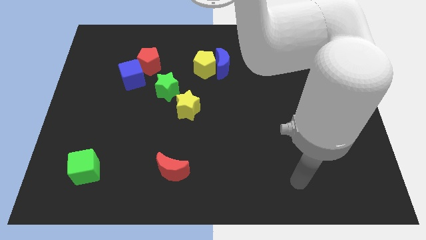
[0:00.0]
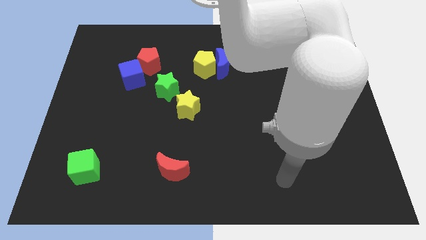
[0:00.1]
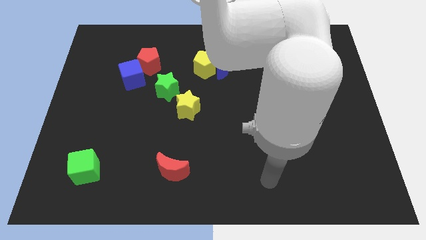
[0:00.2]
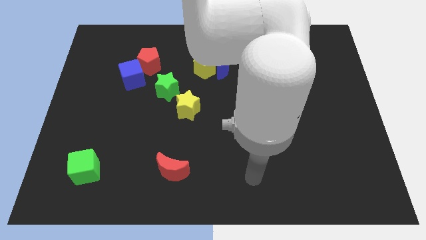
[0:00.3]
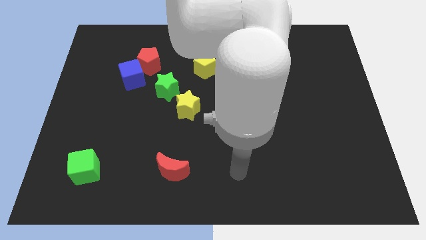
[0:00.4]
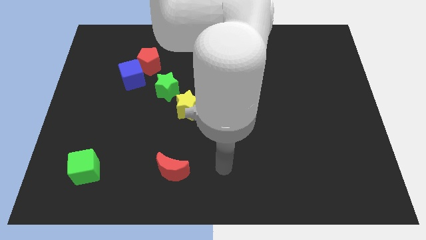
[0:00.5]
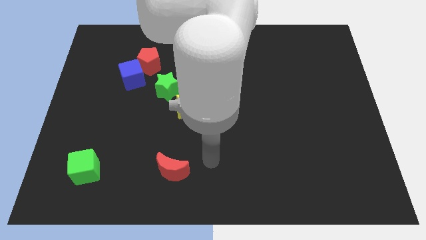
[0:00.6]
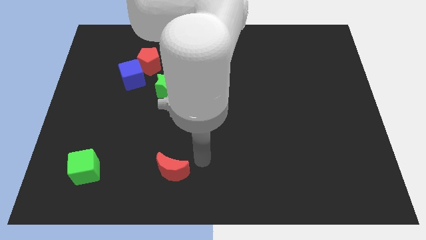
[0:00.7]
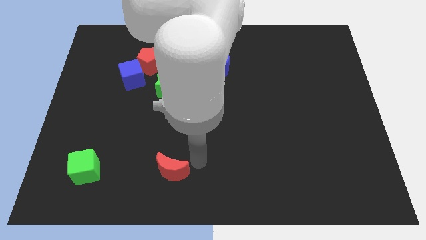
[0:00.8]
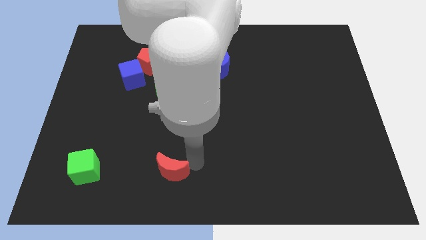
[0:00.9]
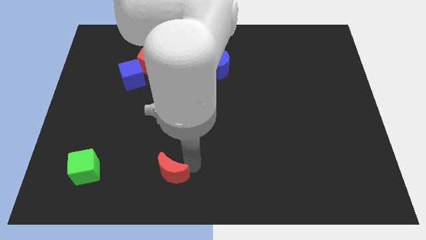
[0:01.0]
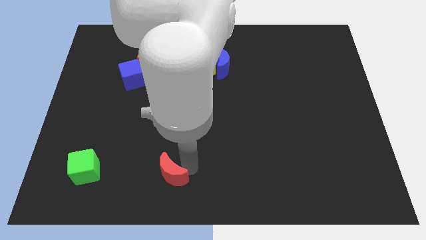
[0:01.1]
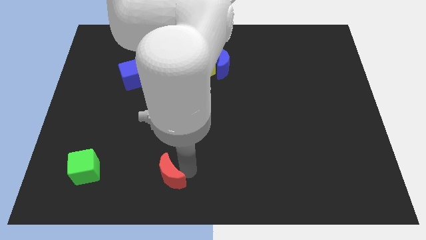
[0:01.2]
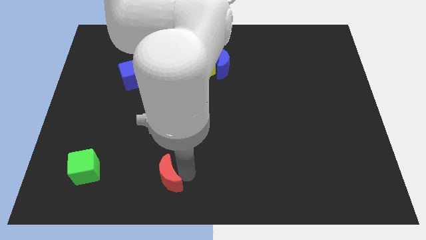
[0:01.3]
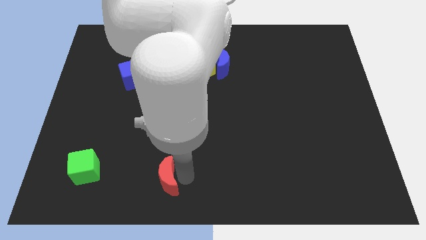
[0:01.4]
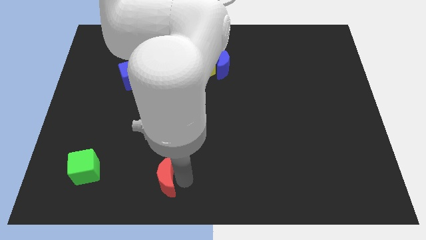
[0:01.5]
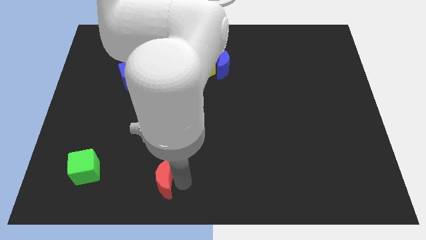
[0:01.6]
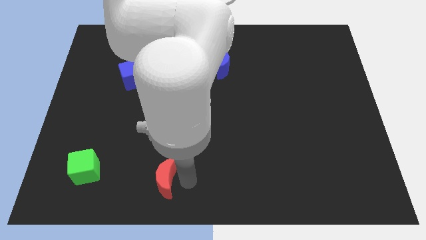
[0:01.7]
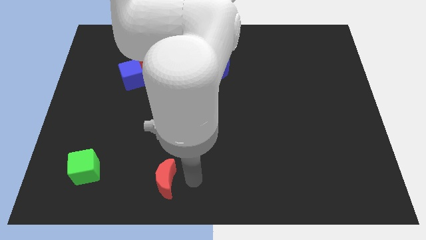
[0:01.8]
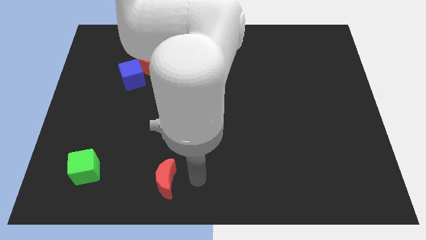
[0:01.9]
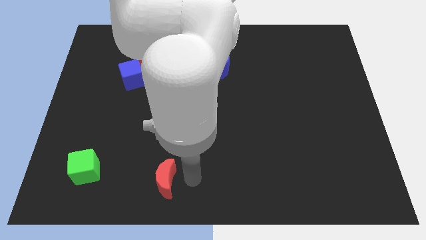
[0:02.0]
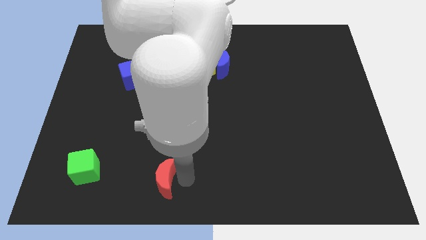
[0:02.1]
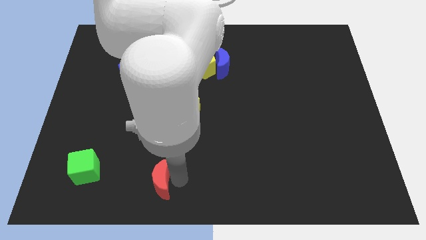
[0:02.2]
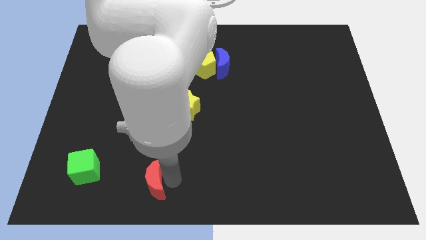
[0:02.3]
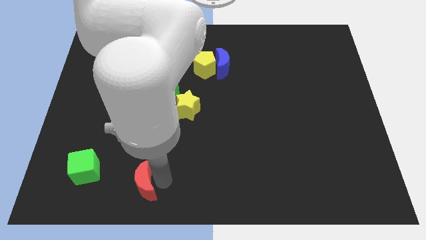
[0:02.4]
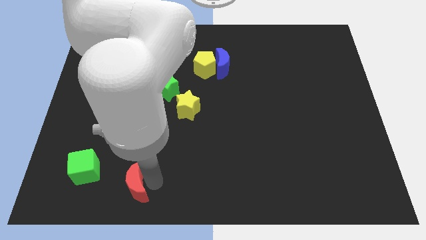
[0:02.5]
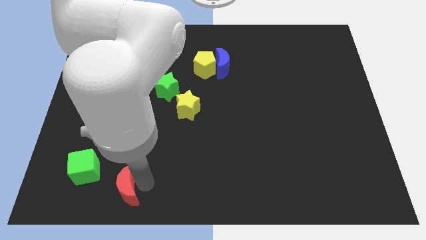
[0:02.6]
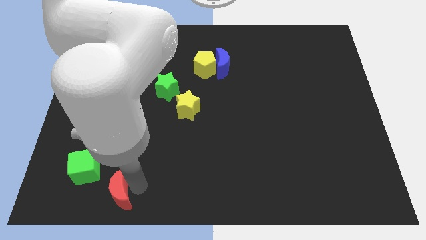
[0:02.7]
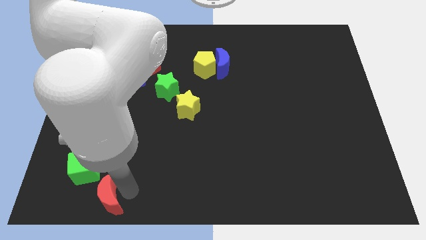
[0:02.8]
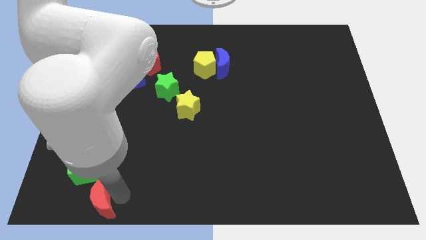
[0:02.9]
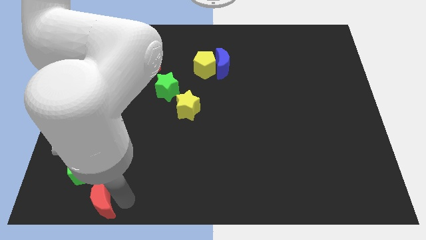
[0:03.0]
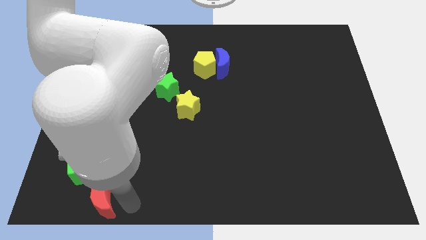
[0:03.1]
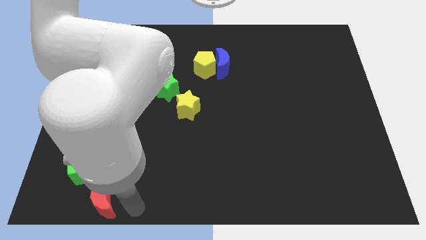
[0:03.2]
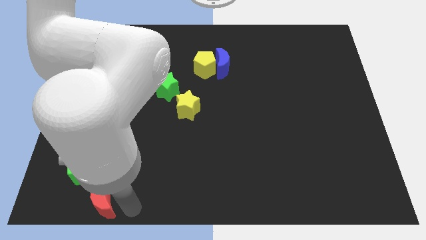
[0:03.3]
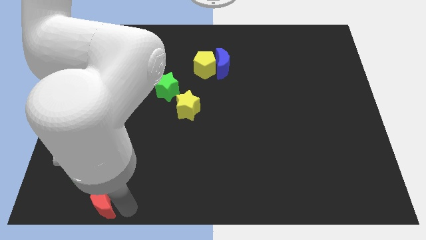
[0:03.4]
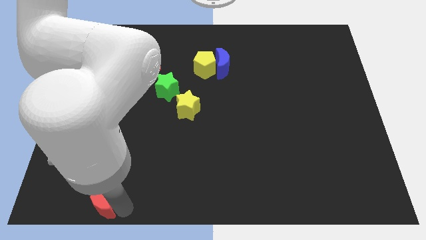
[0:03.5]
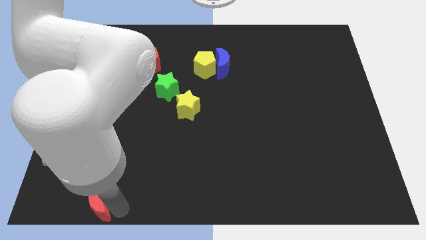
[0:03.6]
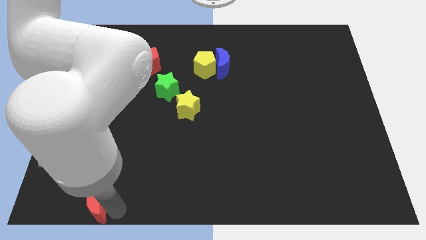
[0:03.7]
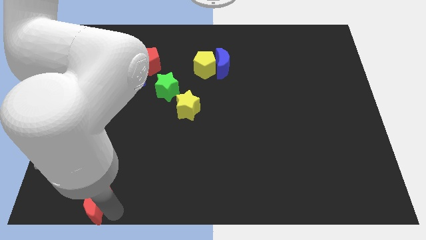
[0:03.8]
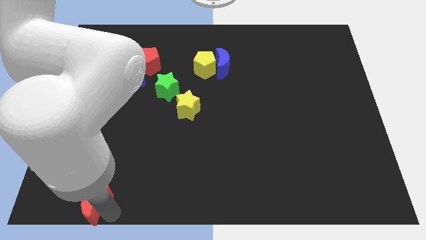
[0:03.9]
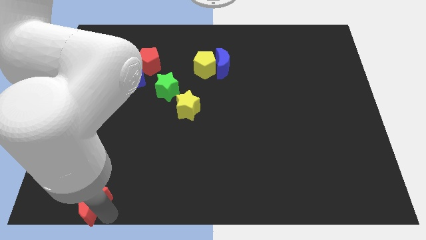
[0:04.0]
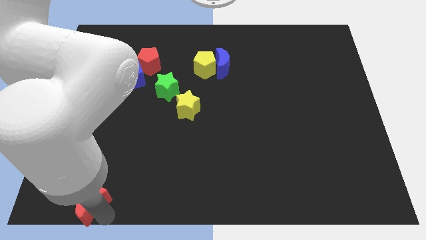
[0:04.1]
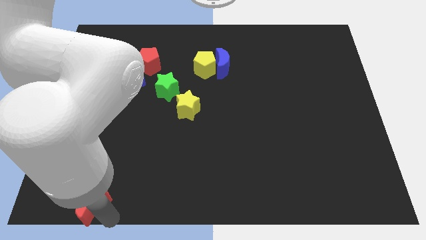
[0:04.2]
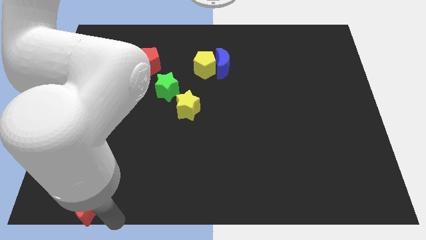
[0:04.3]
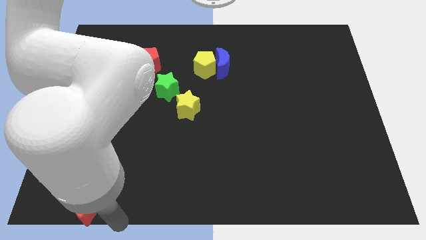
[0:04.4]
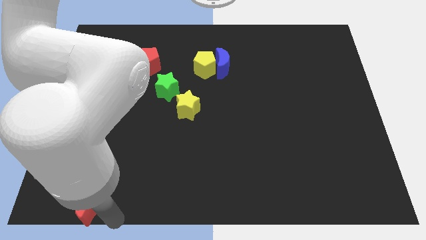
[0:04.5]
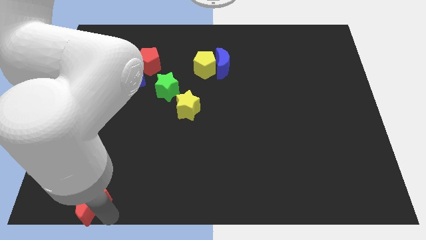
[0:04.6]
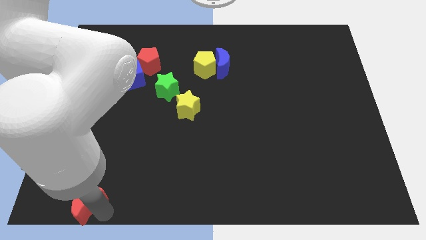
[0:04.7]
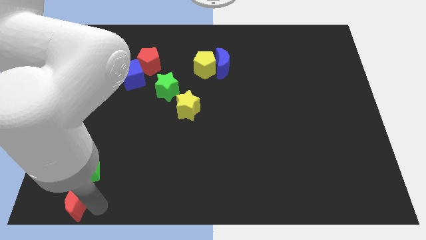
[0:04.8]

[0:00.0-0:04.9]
put the red moon to the bottom left of the board

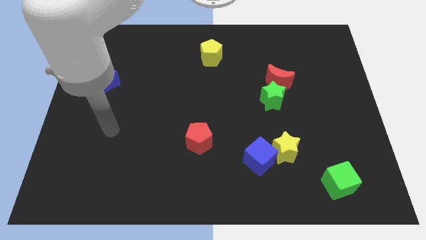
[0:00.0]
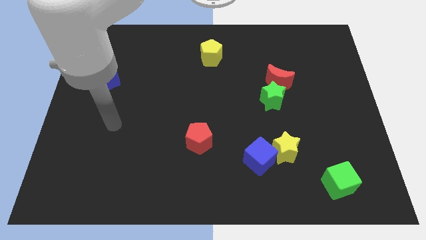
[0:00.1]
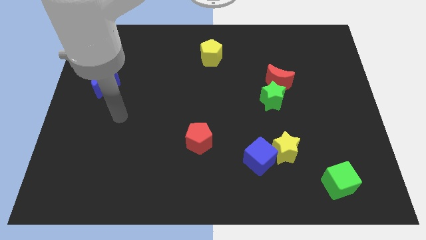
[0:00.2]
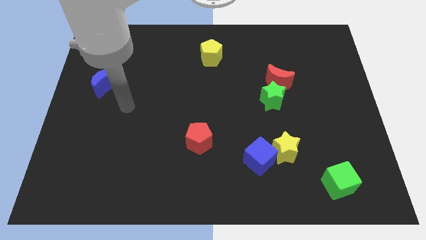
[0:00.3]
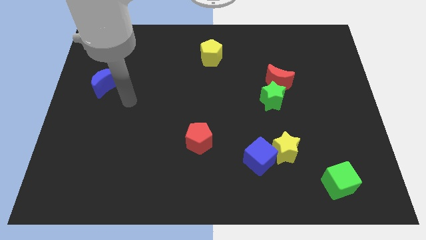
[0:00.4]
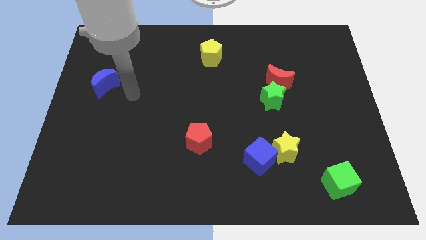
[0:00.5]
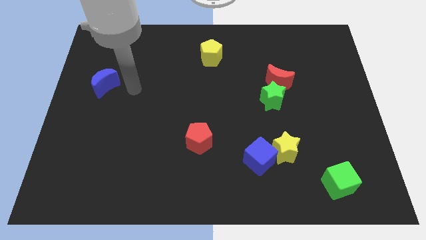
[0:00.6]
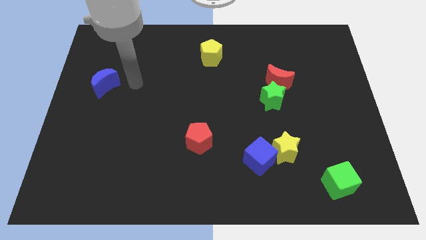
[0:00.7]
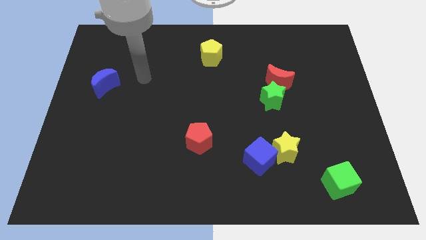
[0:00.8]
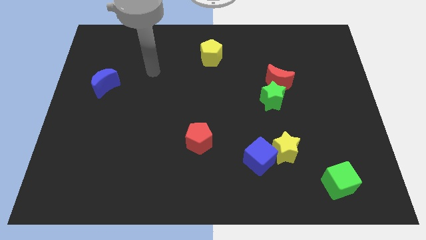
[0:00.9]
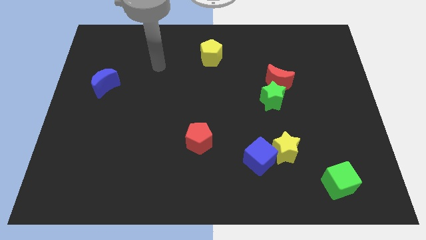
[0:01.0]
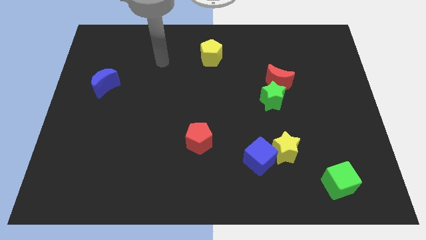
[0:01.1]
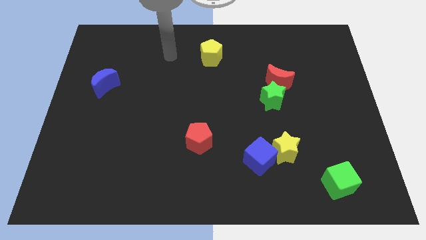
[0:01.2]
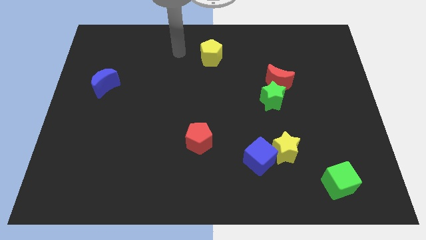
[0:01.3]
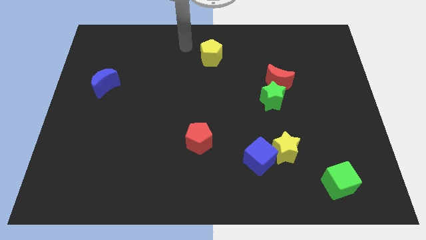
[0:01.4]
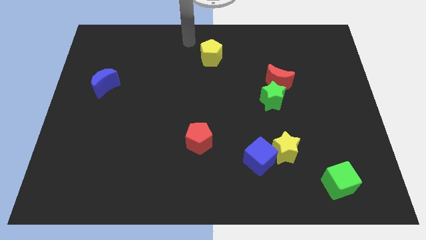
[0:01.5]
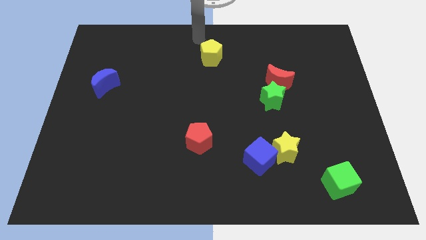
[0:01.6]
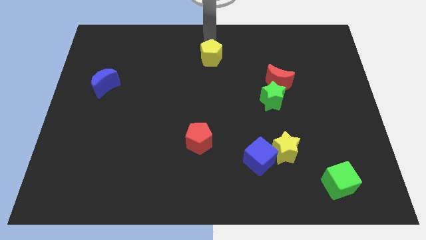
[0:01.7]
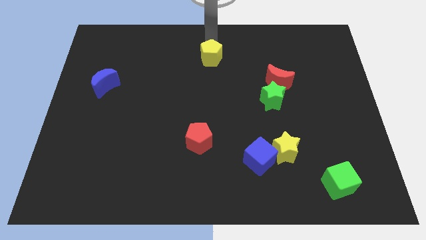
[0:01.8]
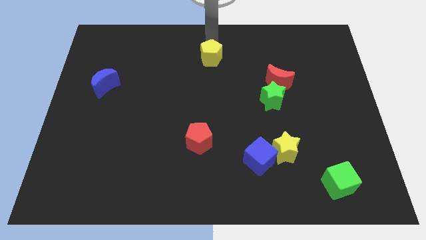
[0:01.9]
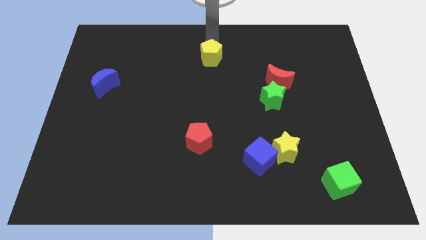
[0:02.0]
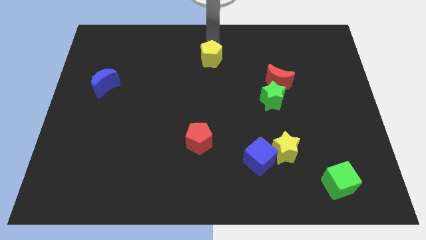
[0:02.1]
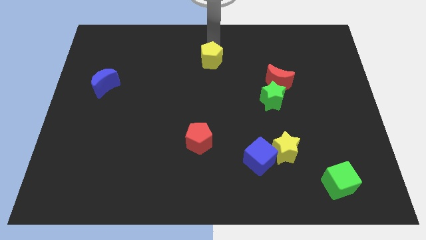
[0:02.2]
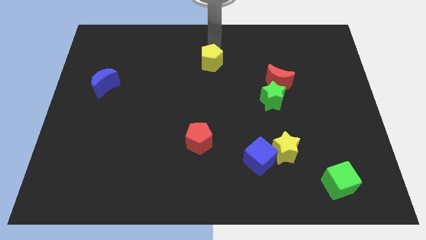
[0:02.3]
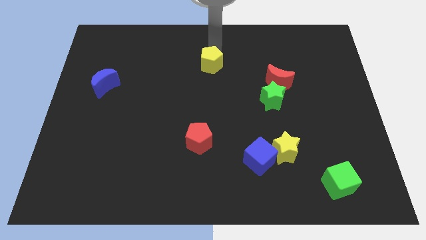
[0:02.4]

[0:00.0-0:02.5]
put the yellow pentagon to the middle
